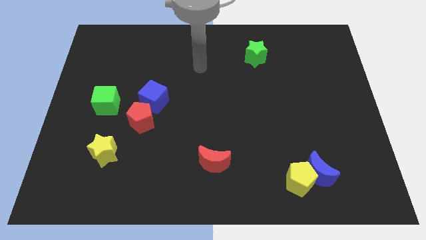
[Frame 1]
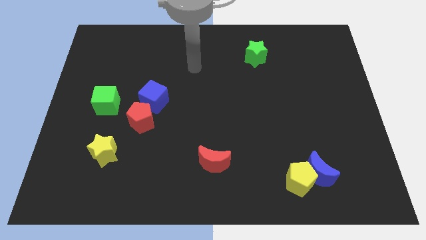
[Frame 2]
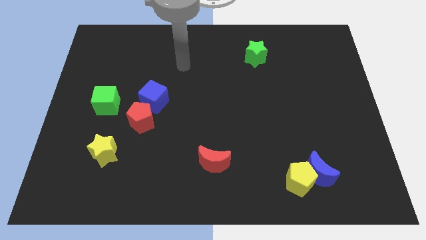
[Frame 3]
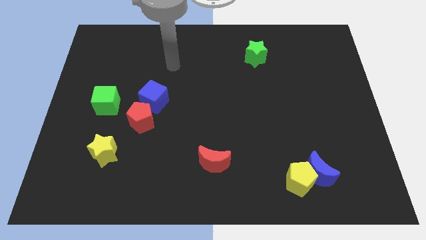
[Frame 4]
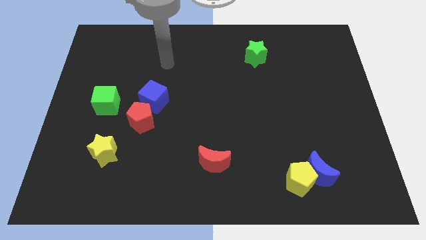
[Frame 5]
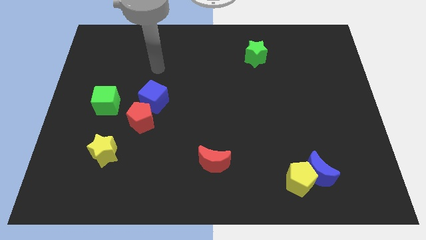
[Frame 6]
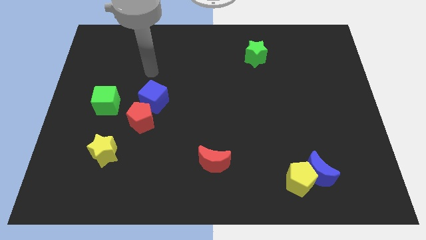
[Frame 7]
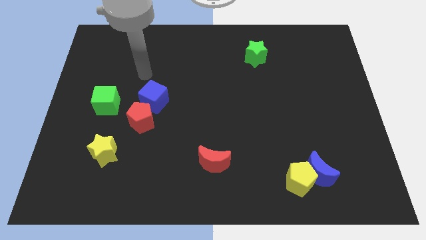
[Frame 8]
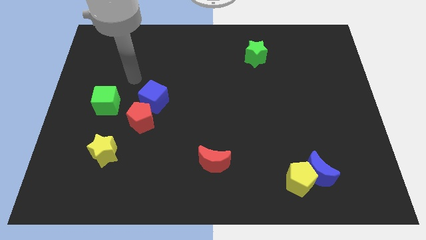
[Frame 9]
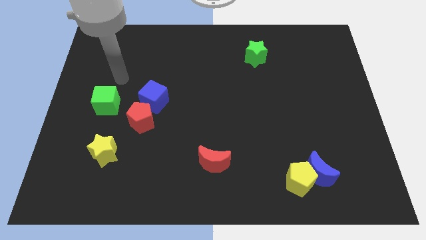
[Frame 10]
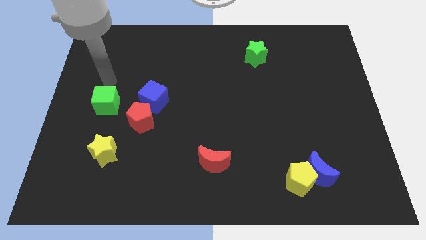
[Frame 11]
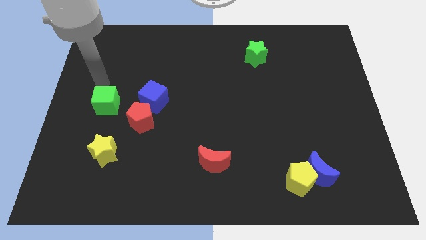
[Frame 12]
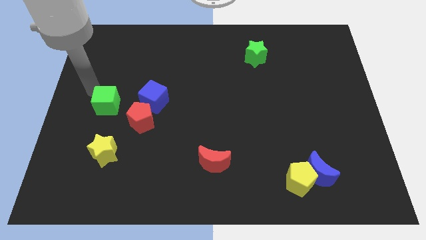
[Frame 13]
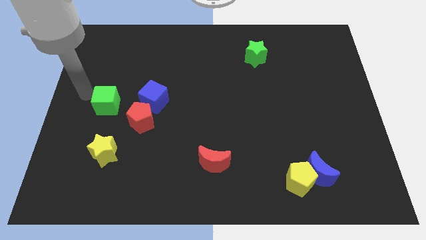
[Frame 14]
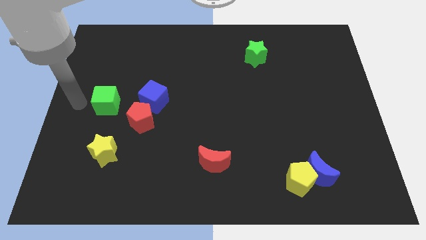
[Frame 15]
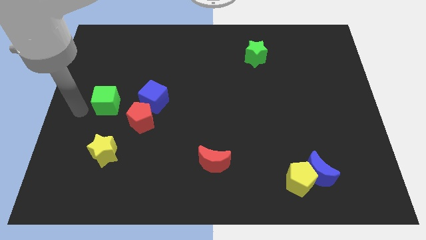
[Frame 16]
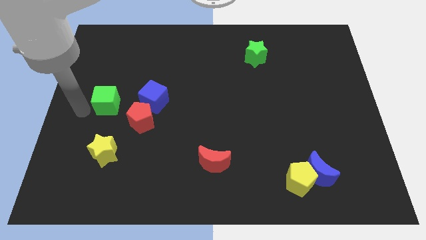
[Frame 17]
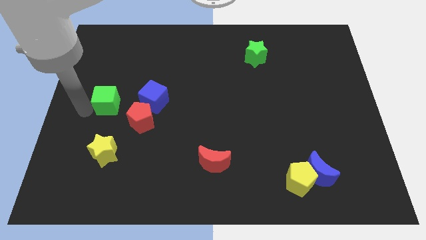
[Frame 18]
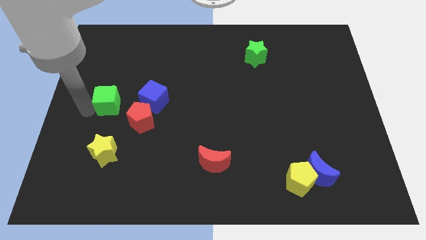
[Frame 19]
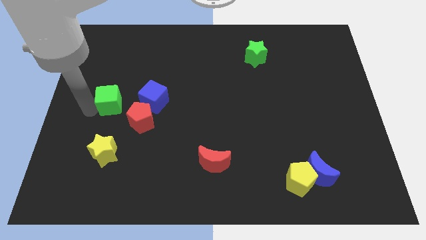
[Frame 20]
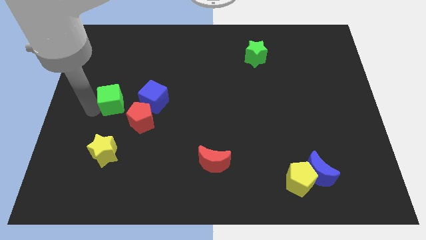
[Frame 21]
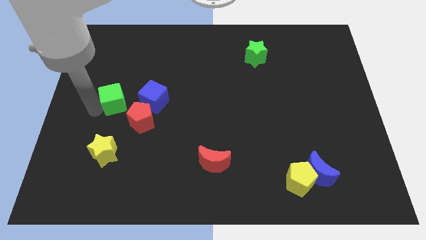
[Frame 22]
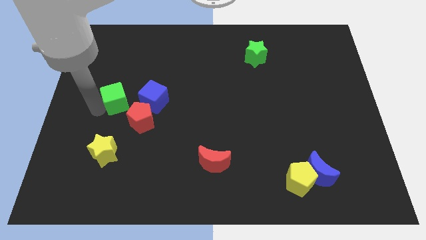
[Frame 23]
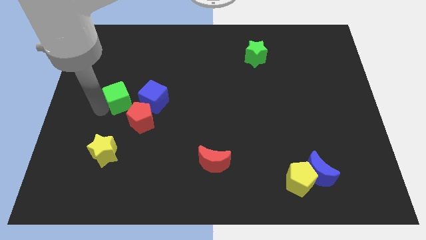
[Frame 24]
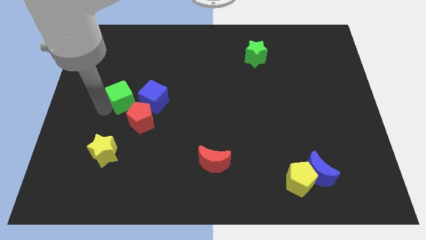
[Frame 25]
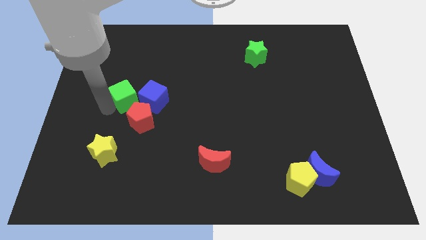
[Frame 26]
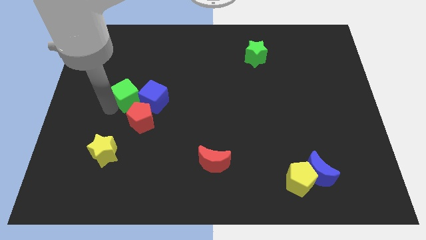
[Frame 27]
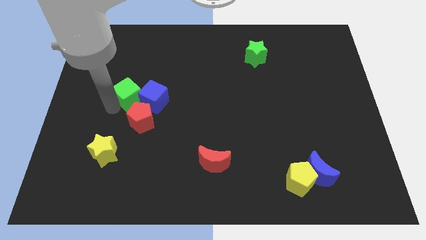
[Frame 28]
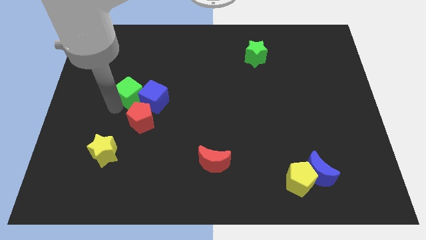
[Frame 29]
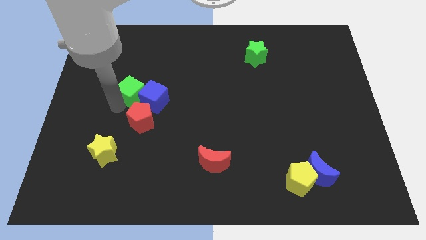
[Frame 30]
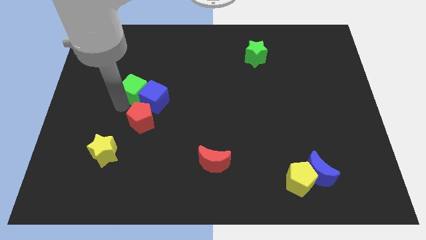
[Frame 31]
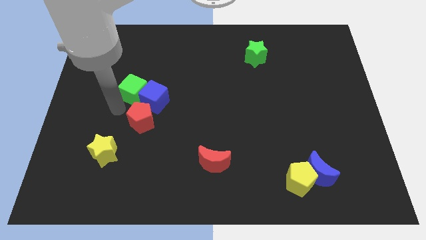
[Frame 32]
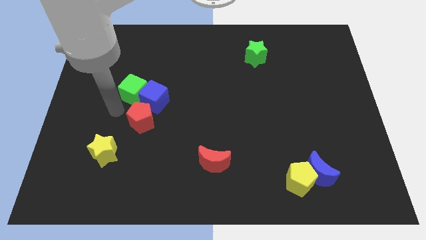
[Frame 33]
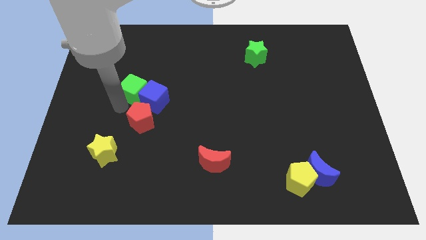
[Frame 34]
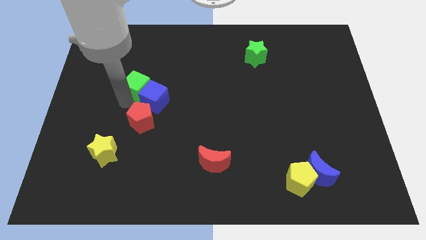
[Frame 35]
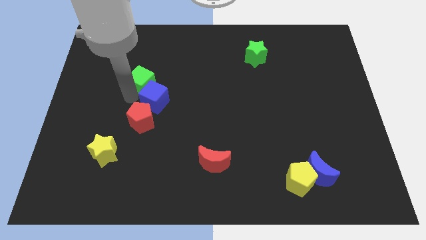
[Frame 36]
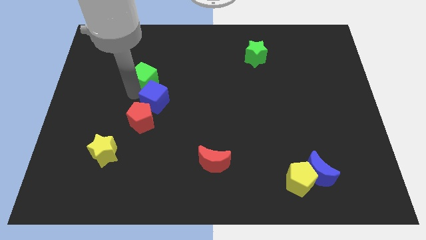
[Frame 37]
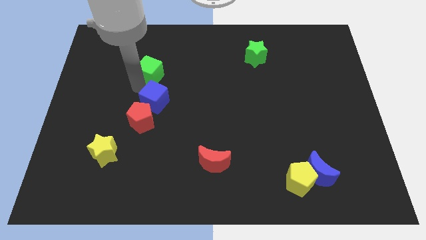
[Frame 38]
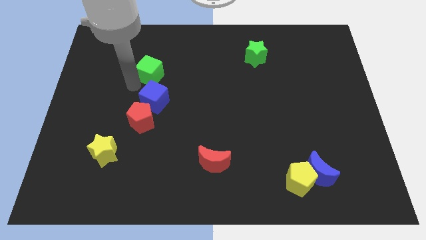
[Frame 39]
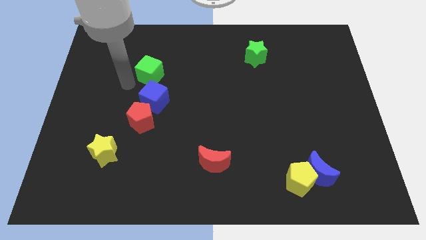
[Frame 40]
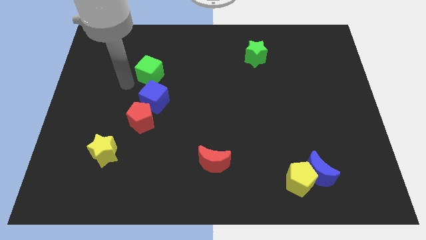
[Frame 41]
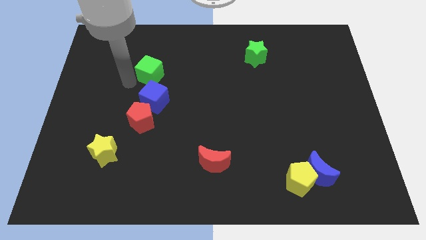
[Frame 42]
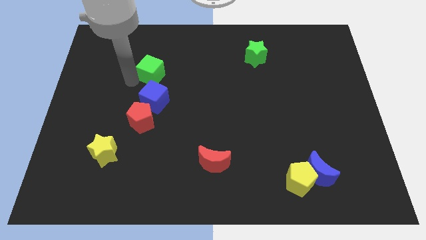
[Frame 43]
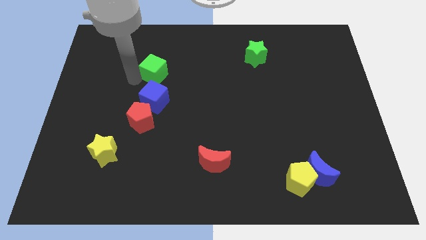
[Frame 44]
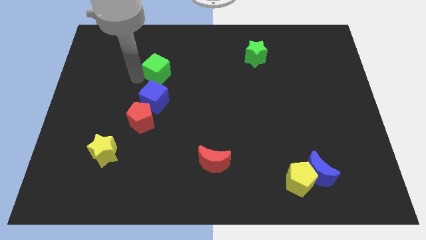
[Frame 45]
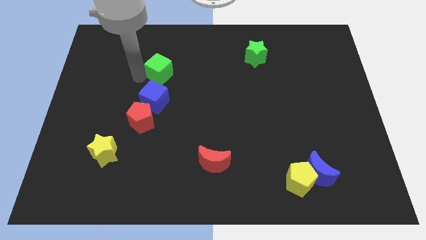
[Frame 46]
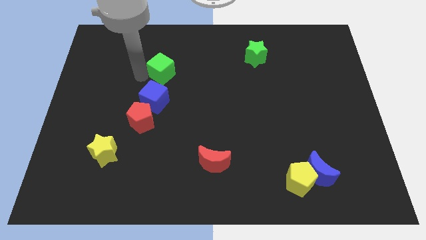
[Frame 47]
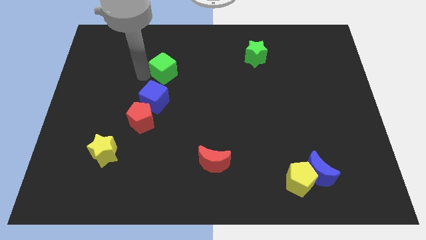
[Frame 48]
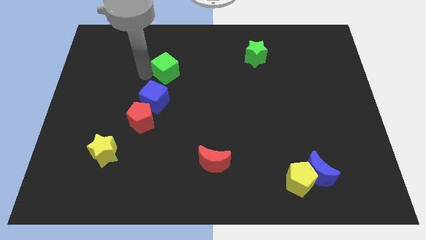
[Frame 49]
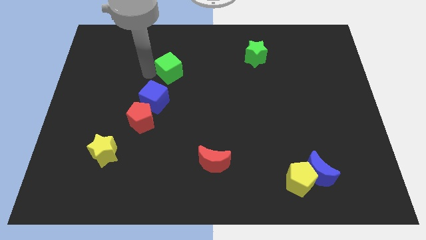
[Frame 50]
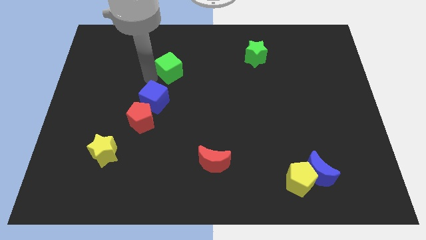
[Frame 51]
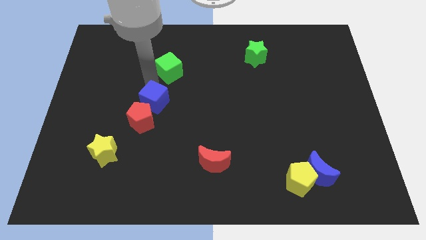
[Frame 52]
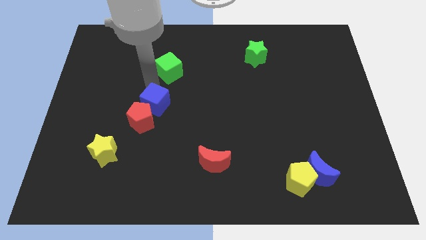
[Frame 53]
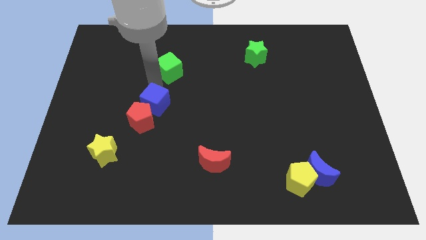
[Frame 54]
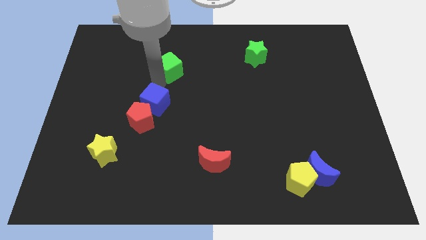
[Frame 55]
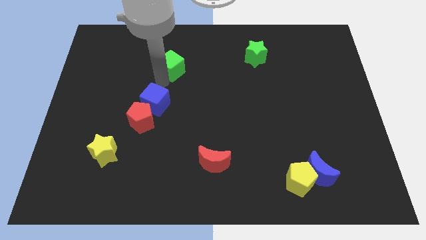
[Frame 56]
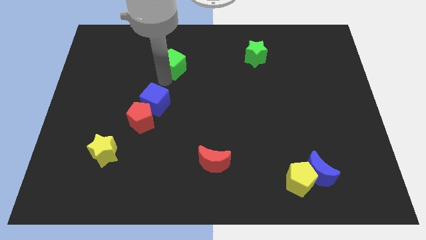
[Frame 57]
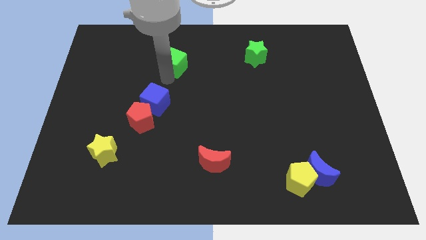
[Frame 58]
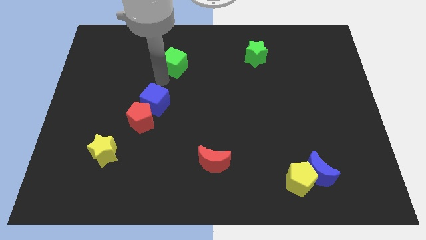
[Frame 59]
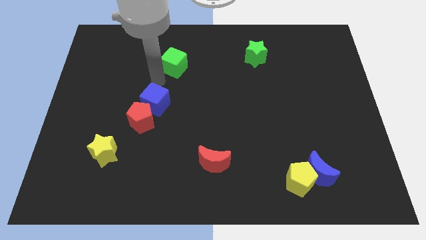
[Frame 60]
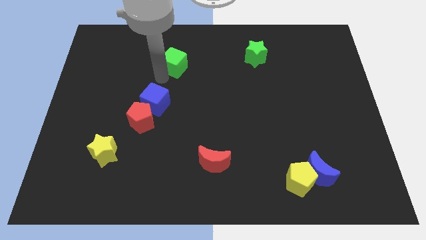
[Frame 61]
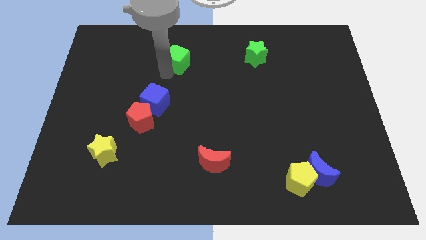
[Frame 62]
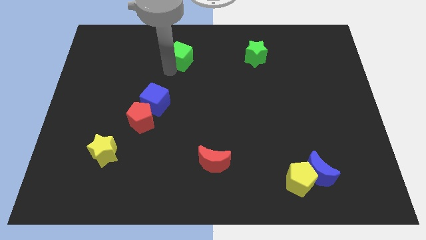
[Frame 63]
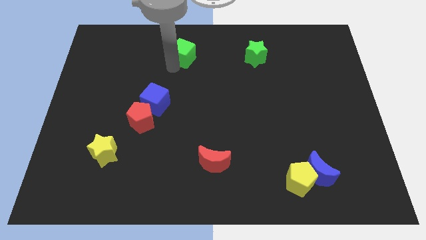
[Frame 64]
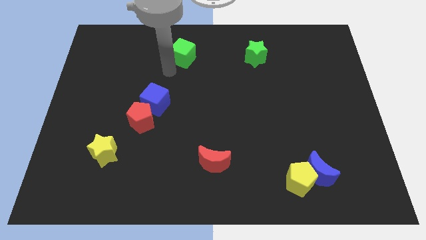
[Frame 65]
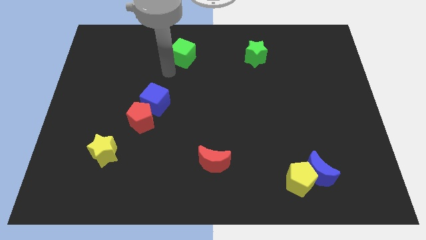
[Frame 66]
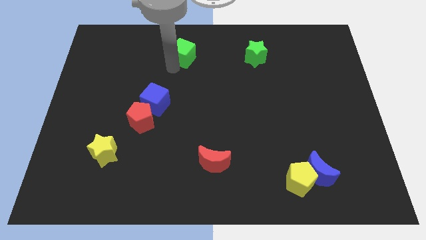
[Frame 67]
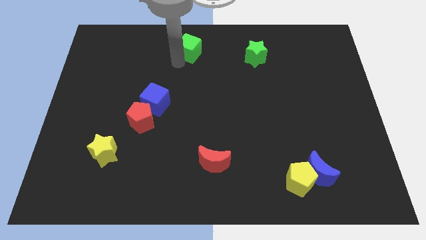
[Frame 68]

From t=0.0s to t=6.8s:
move the green cube to the top
